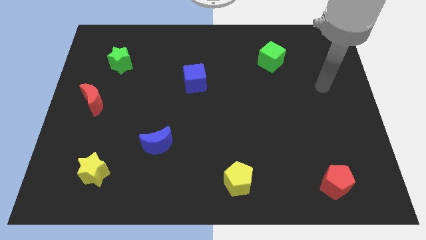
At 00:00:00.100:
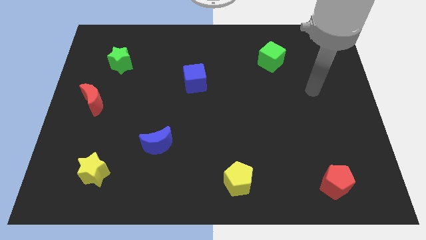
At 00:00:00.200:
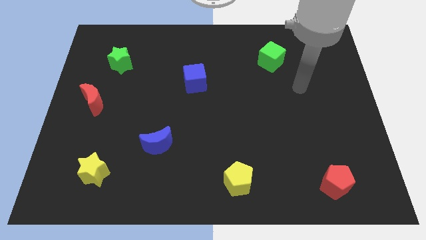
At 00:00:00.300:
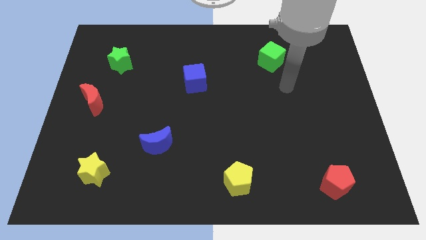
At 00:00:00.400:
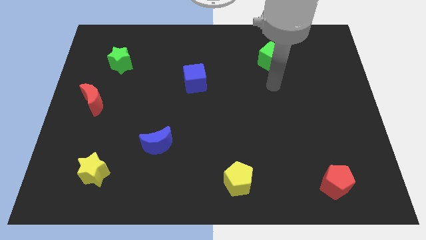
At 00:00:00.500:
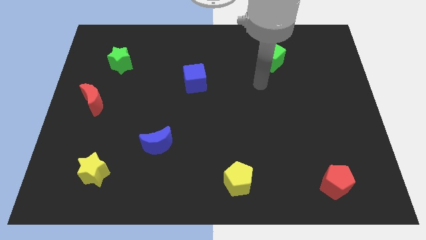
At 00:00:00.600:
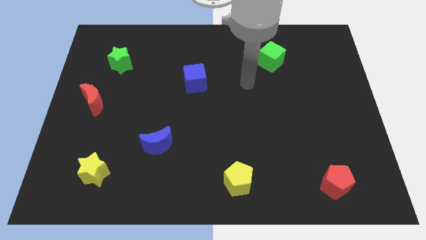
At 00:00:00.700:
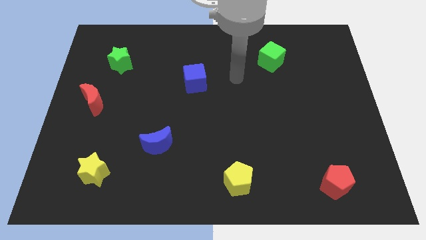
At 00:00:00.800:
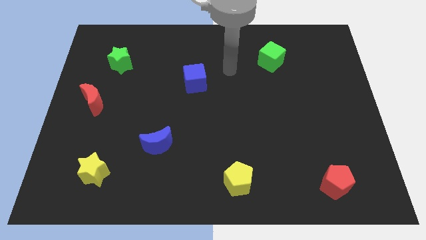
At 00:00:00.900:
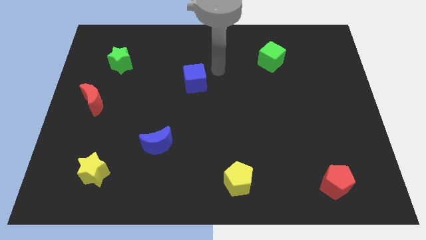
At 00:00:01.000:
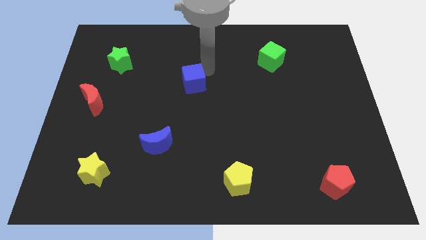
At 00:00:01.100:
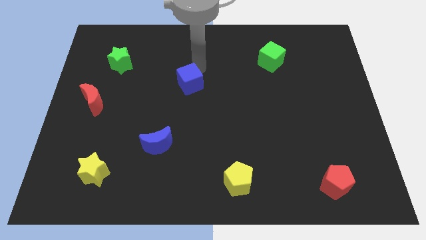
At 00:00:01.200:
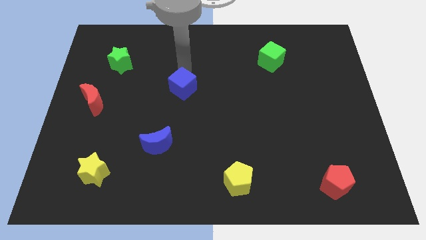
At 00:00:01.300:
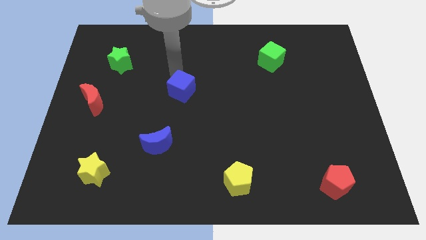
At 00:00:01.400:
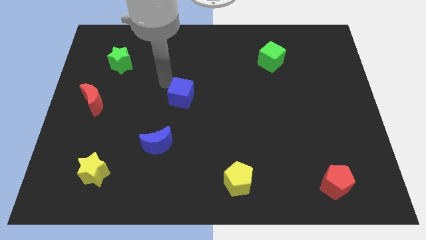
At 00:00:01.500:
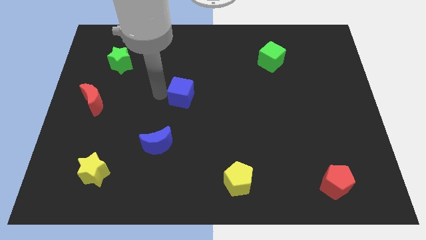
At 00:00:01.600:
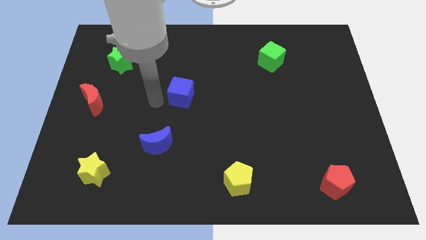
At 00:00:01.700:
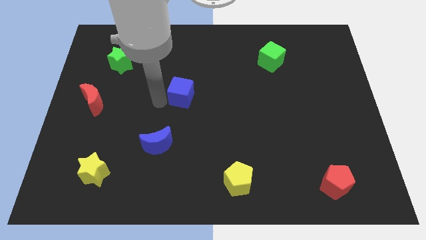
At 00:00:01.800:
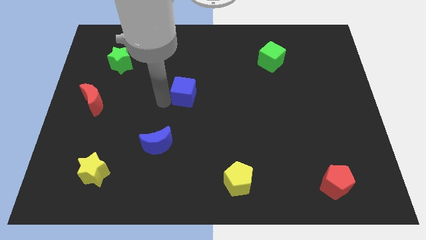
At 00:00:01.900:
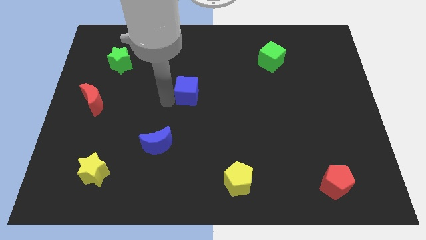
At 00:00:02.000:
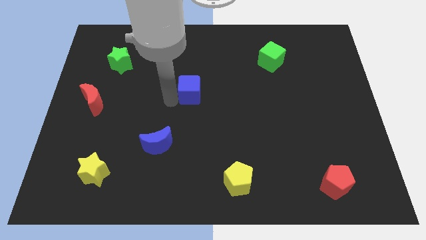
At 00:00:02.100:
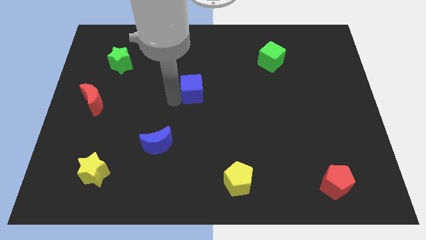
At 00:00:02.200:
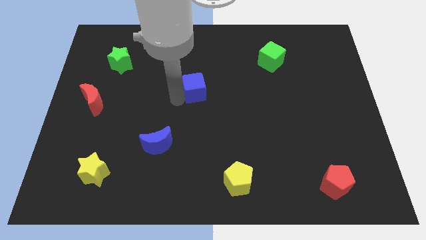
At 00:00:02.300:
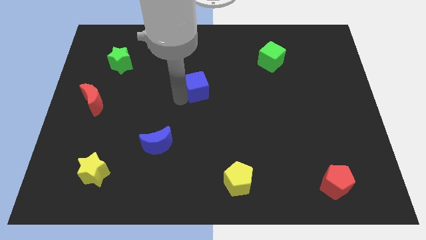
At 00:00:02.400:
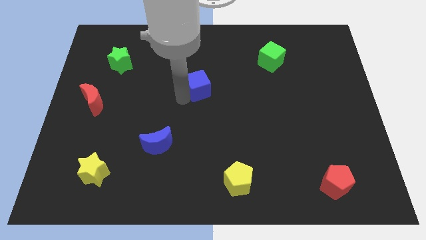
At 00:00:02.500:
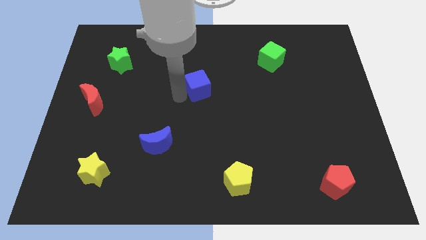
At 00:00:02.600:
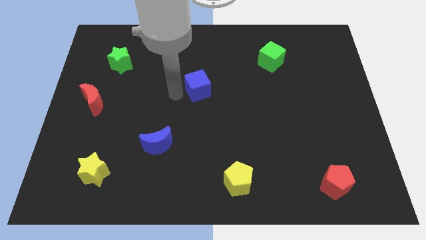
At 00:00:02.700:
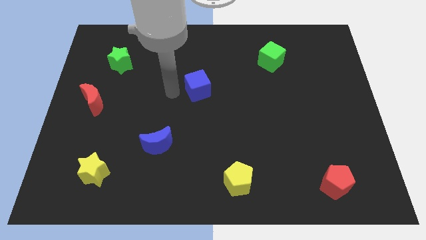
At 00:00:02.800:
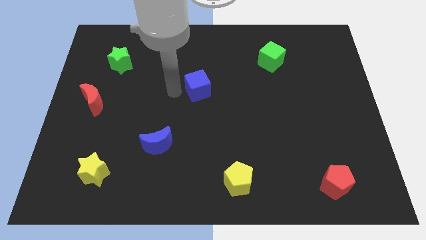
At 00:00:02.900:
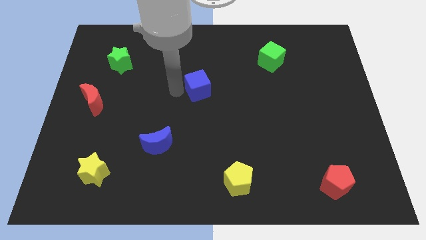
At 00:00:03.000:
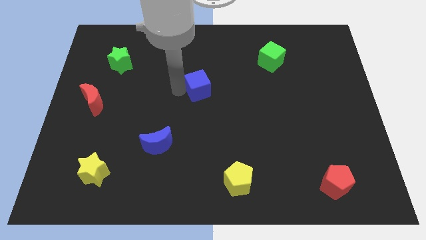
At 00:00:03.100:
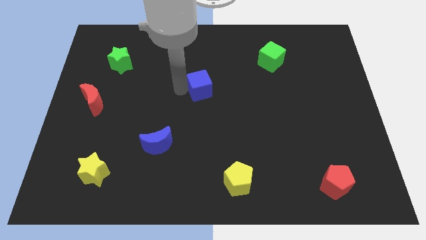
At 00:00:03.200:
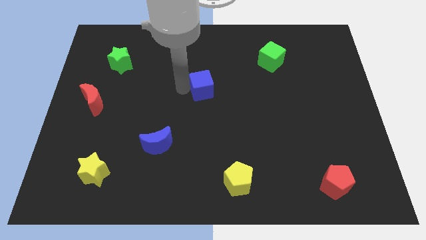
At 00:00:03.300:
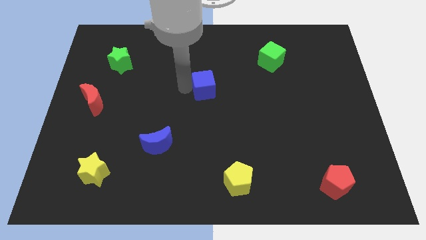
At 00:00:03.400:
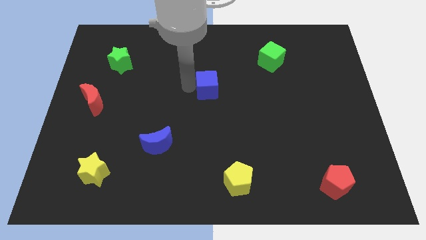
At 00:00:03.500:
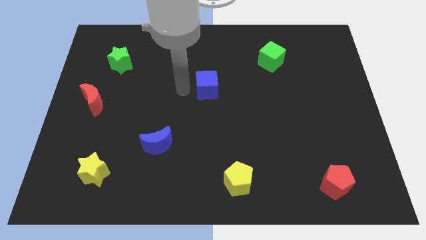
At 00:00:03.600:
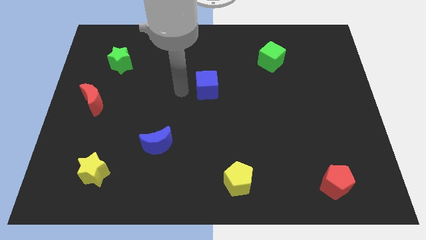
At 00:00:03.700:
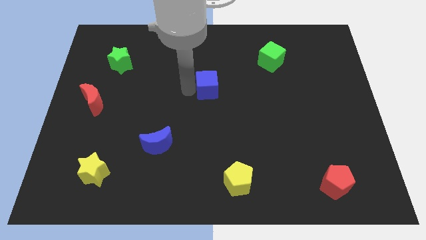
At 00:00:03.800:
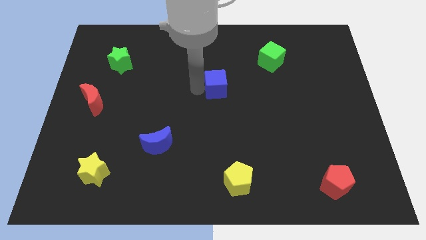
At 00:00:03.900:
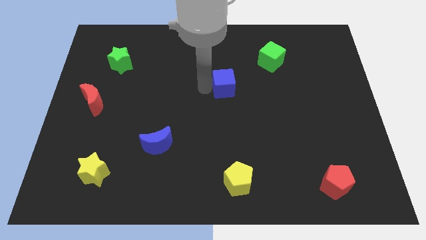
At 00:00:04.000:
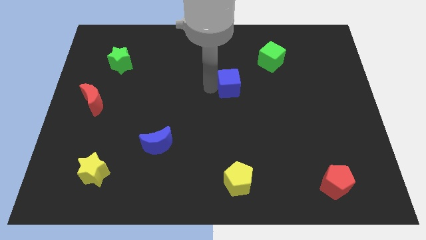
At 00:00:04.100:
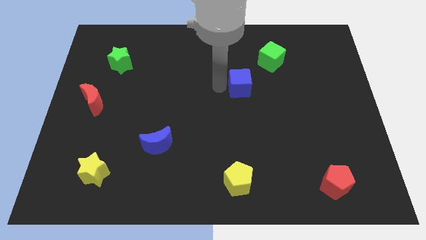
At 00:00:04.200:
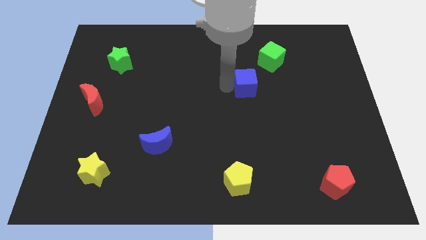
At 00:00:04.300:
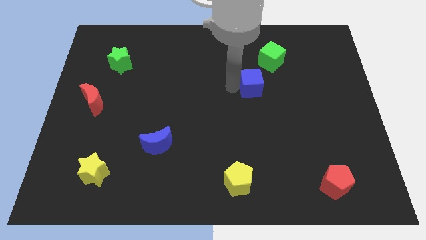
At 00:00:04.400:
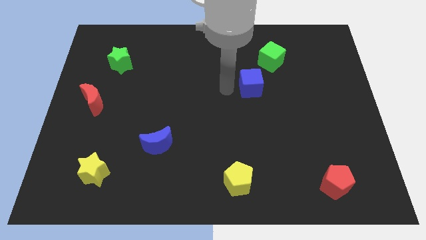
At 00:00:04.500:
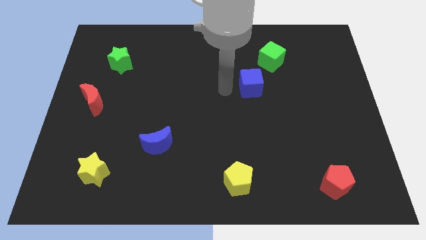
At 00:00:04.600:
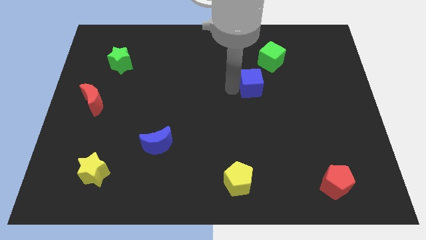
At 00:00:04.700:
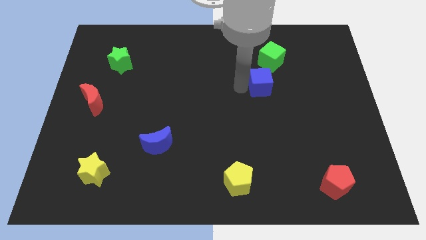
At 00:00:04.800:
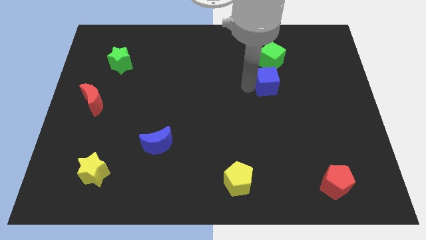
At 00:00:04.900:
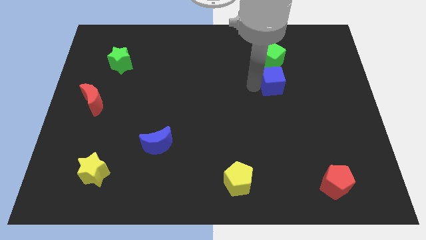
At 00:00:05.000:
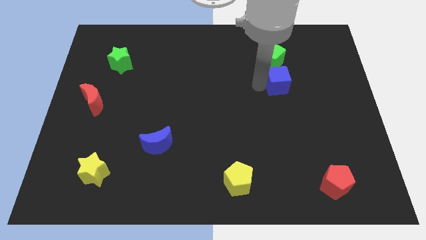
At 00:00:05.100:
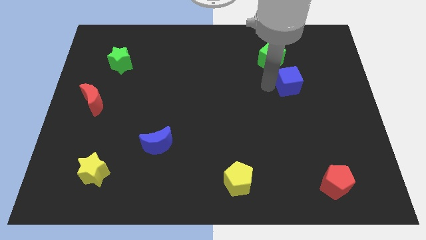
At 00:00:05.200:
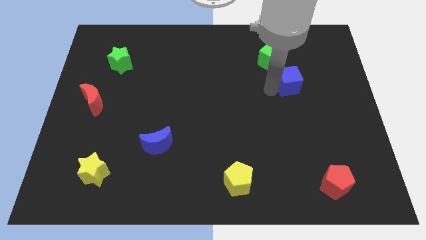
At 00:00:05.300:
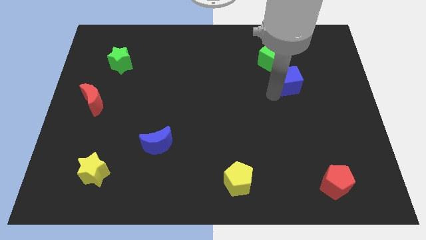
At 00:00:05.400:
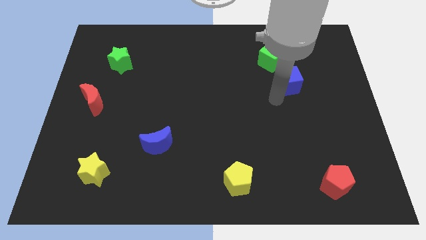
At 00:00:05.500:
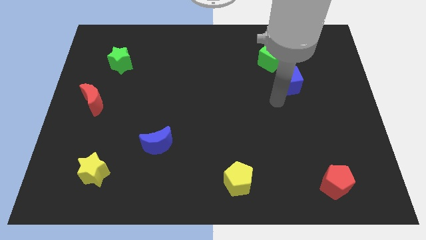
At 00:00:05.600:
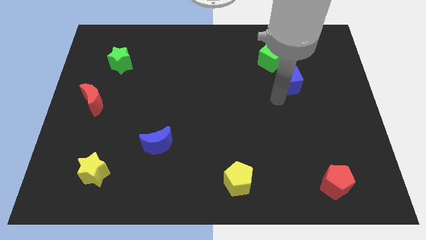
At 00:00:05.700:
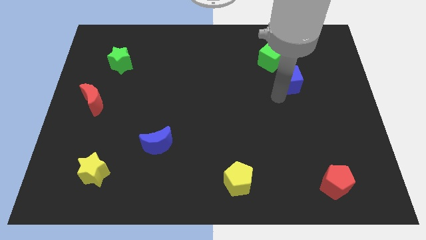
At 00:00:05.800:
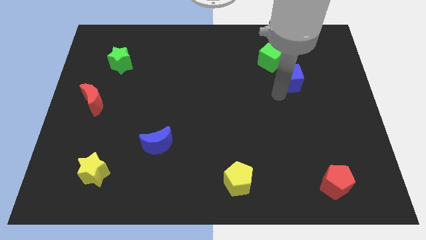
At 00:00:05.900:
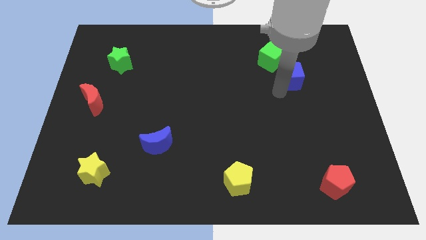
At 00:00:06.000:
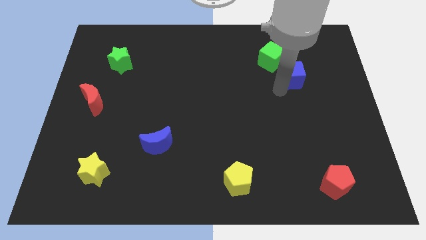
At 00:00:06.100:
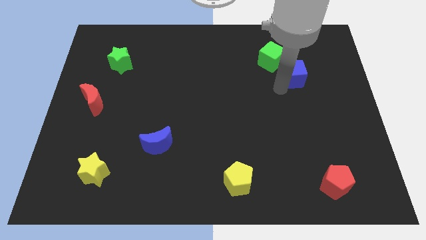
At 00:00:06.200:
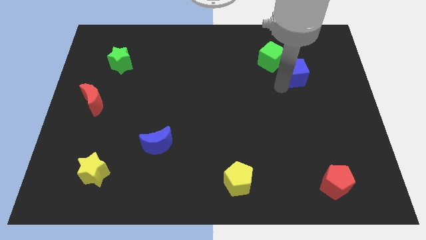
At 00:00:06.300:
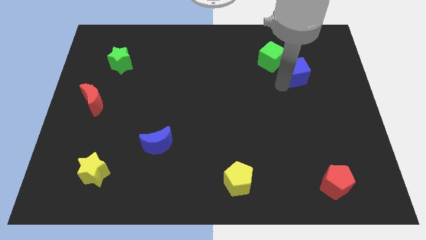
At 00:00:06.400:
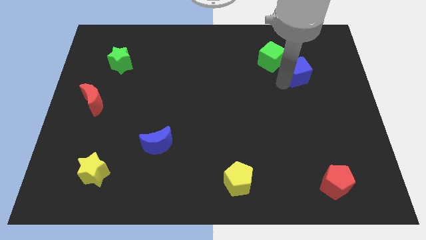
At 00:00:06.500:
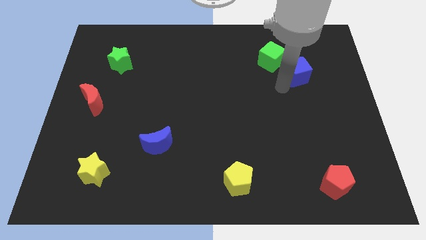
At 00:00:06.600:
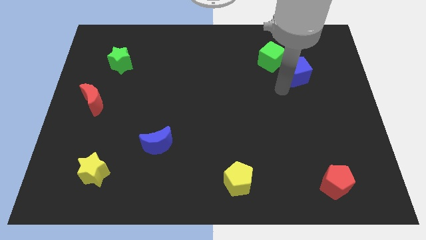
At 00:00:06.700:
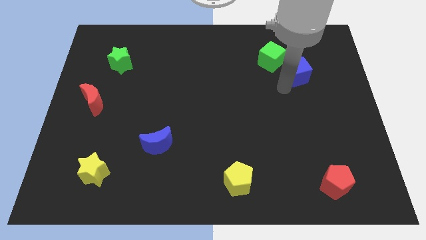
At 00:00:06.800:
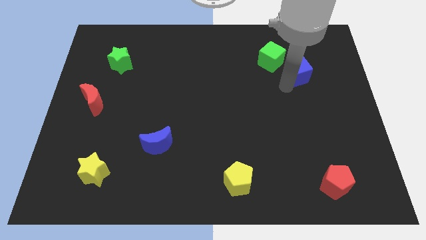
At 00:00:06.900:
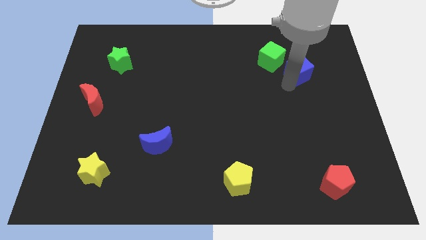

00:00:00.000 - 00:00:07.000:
move the blue cube to the right side of the green cube
